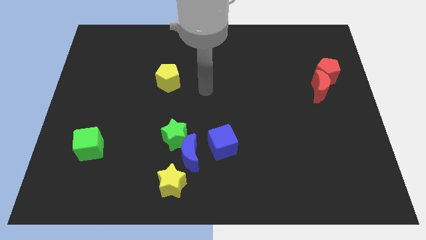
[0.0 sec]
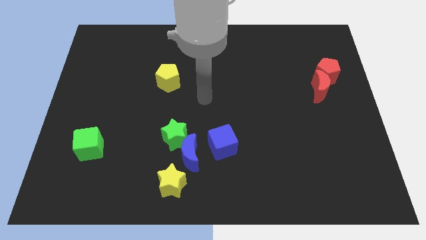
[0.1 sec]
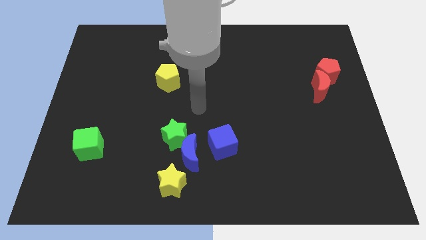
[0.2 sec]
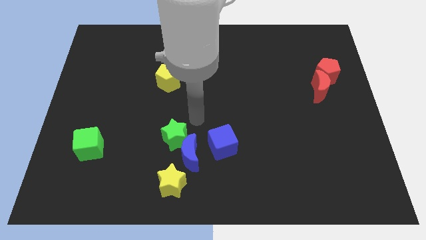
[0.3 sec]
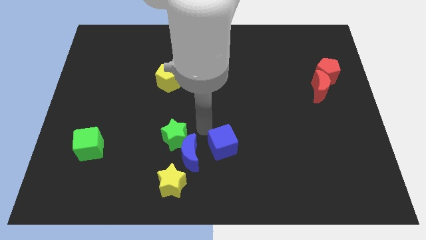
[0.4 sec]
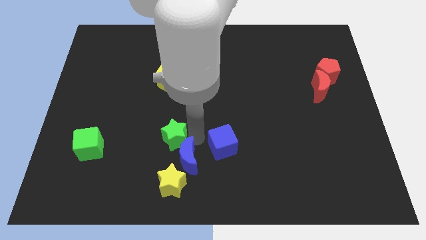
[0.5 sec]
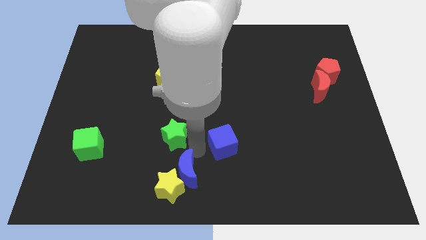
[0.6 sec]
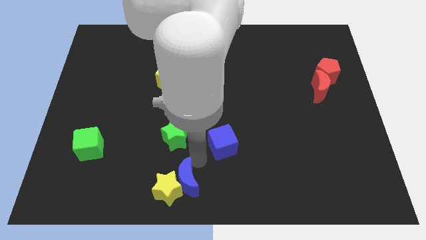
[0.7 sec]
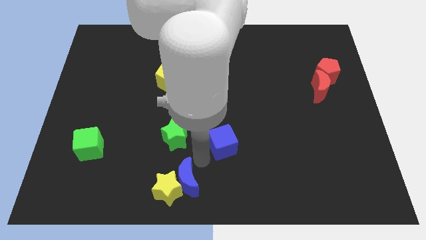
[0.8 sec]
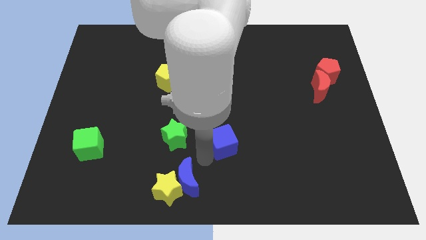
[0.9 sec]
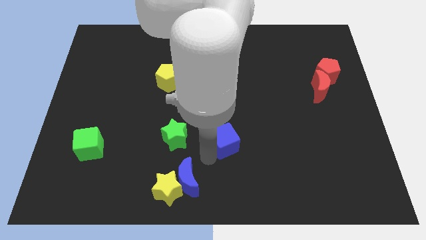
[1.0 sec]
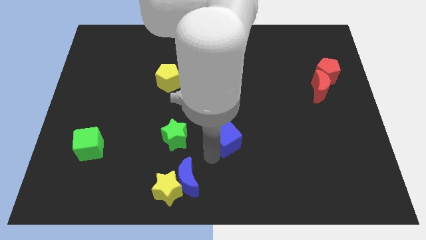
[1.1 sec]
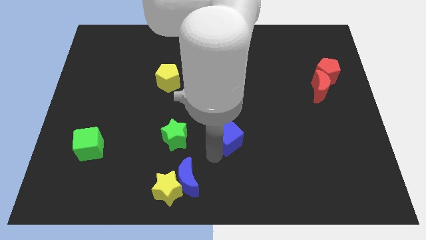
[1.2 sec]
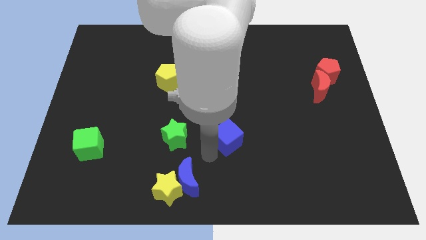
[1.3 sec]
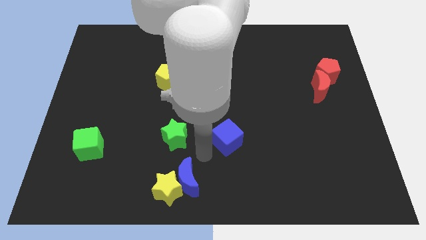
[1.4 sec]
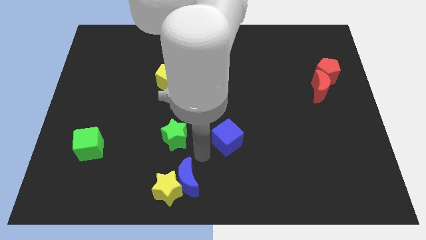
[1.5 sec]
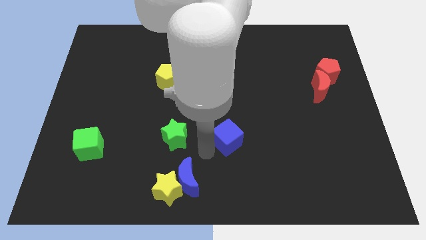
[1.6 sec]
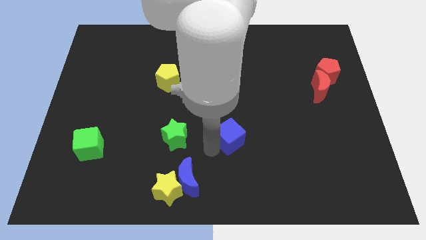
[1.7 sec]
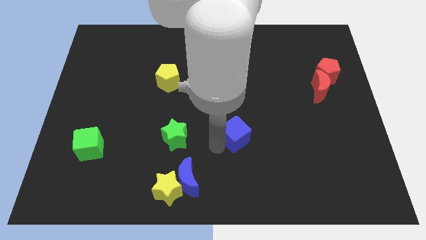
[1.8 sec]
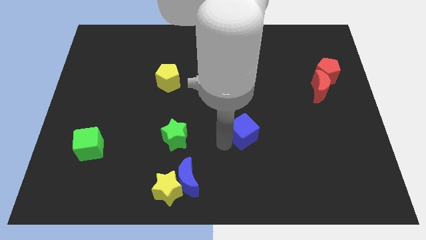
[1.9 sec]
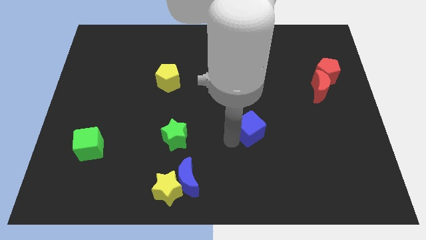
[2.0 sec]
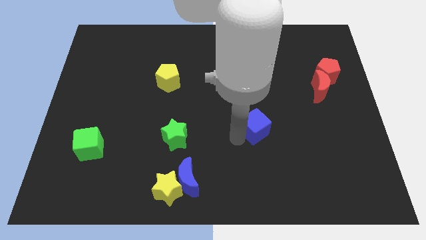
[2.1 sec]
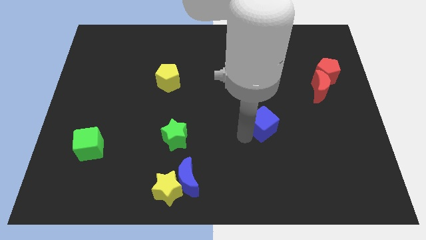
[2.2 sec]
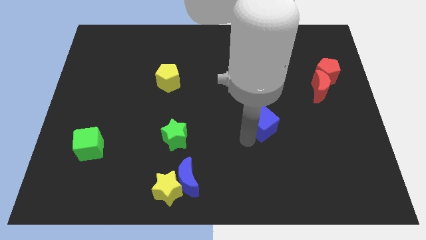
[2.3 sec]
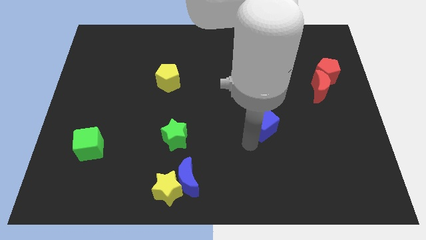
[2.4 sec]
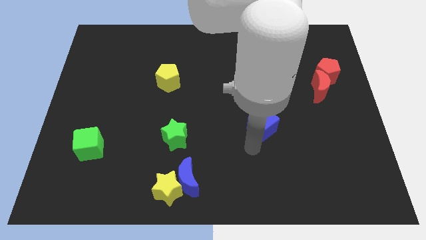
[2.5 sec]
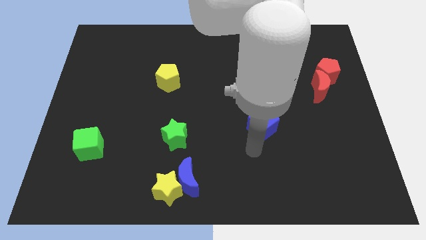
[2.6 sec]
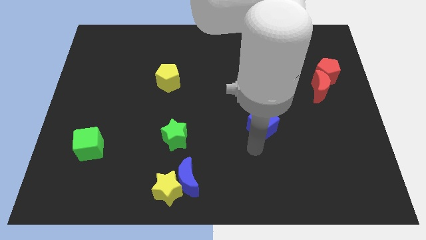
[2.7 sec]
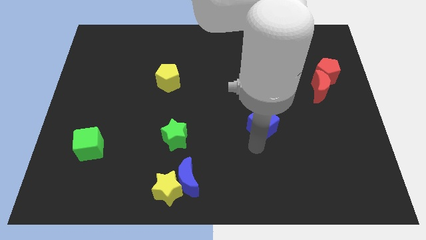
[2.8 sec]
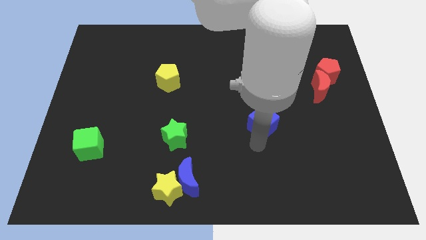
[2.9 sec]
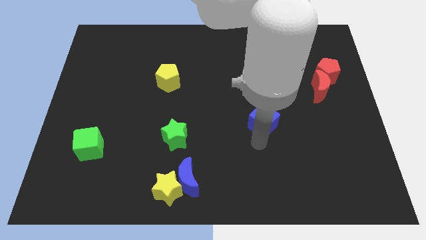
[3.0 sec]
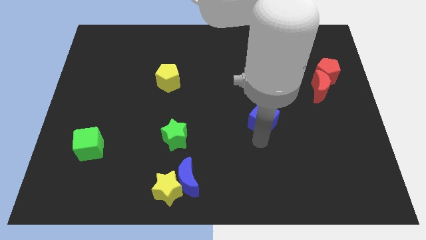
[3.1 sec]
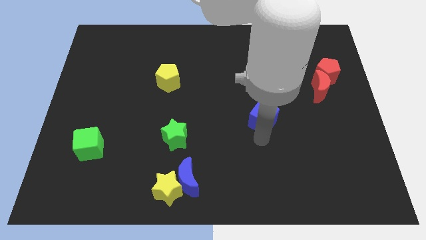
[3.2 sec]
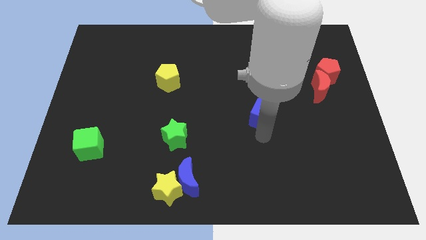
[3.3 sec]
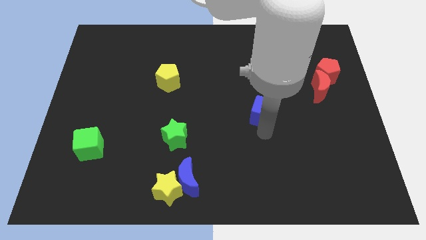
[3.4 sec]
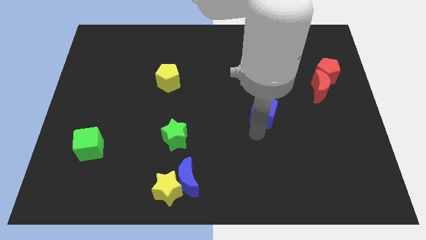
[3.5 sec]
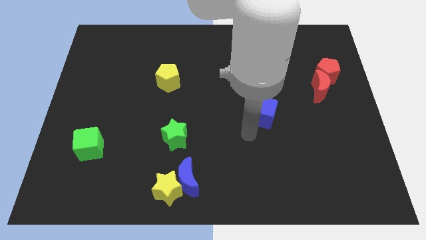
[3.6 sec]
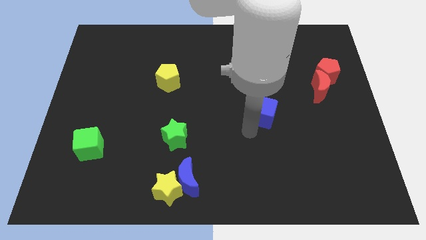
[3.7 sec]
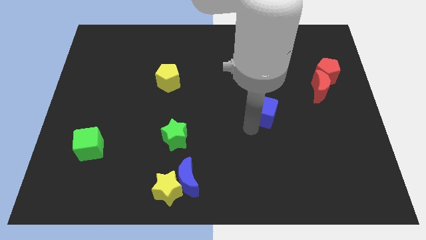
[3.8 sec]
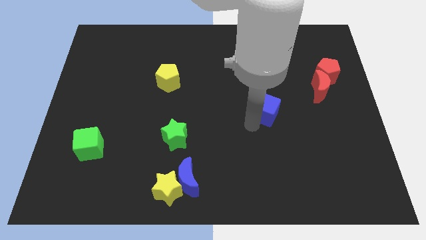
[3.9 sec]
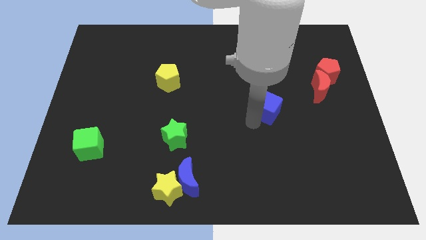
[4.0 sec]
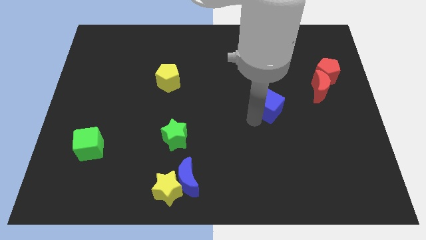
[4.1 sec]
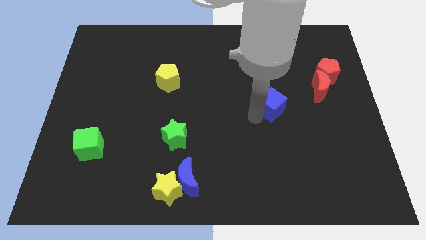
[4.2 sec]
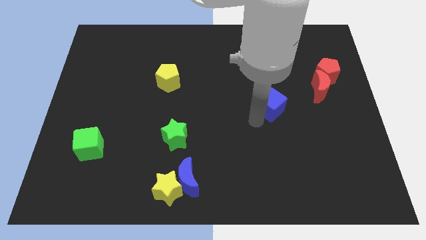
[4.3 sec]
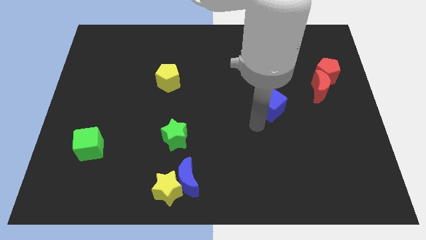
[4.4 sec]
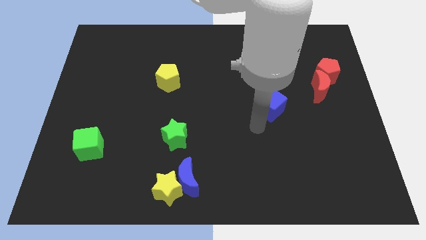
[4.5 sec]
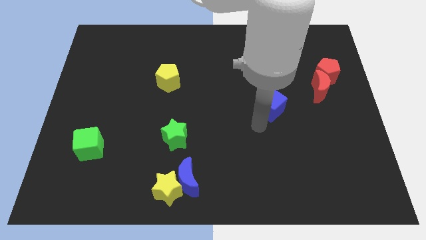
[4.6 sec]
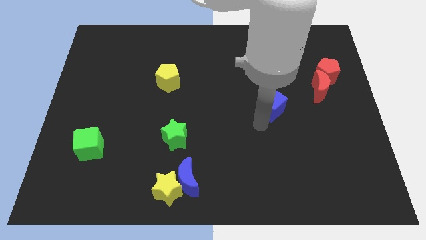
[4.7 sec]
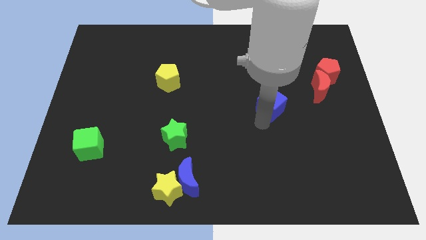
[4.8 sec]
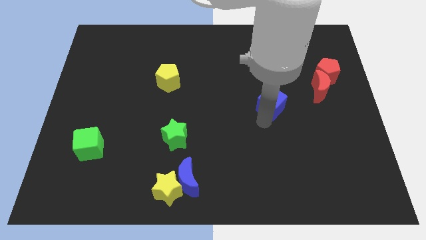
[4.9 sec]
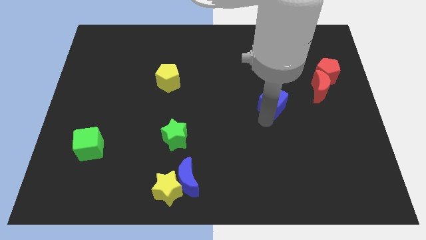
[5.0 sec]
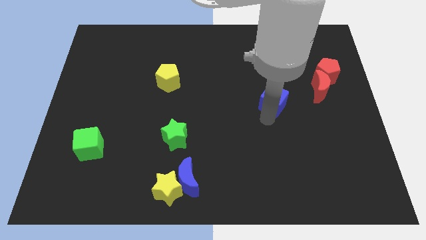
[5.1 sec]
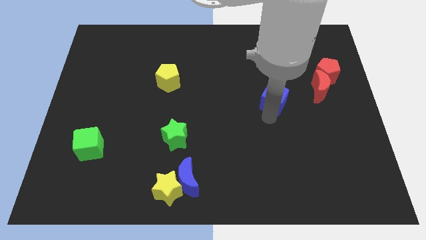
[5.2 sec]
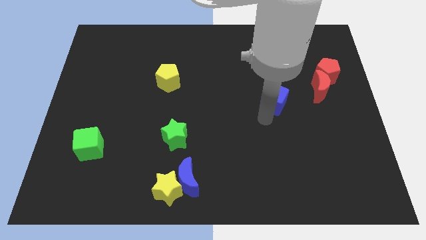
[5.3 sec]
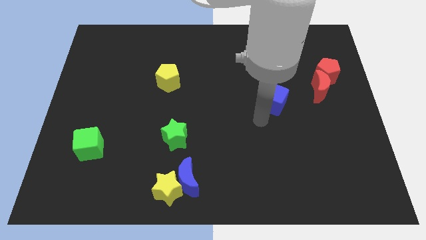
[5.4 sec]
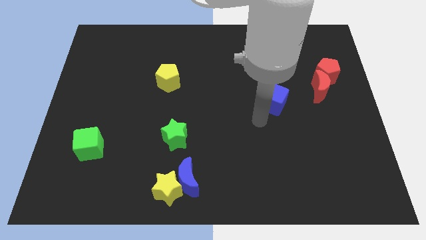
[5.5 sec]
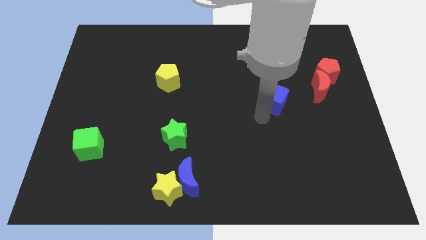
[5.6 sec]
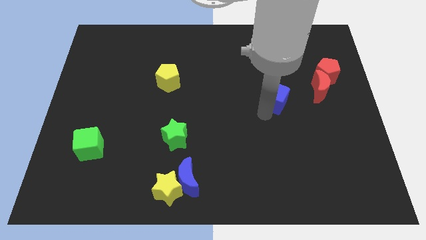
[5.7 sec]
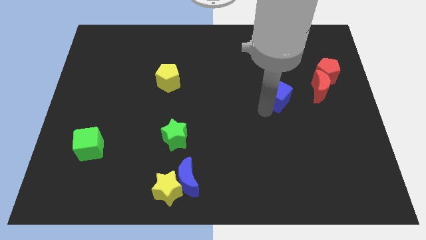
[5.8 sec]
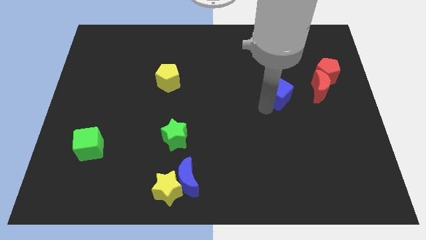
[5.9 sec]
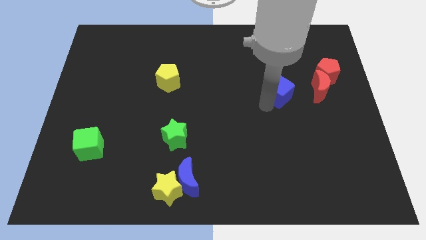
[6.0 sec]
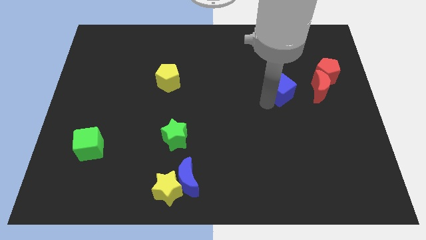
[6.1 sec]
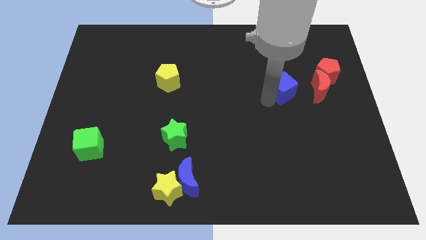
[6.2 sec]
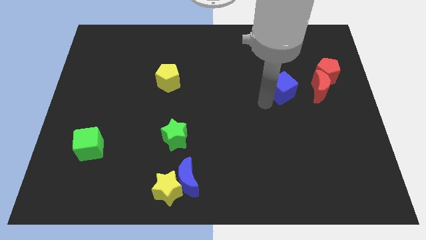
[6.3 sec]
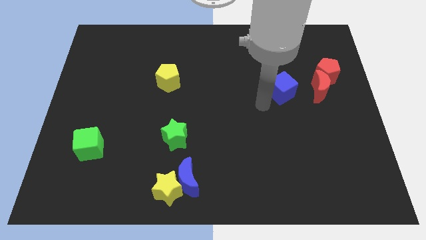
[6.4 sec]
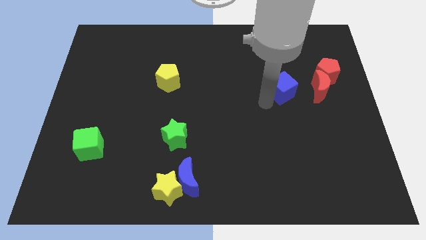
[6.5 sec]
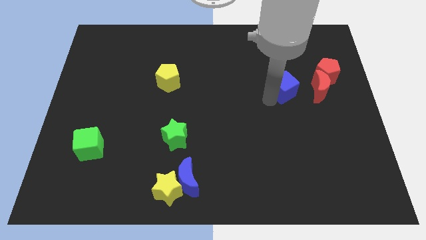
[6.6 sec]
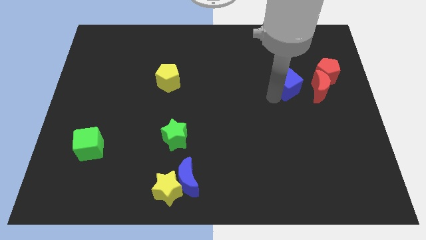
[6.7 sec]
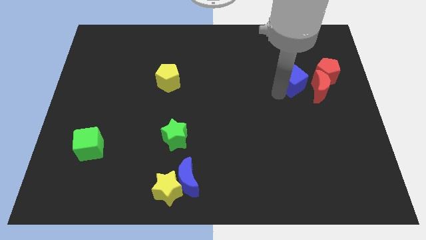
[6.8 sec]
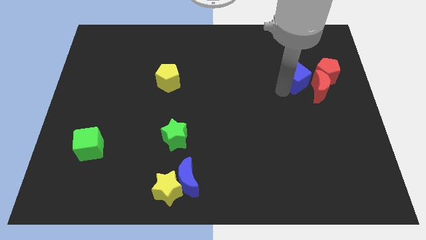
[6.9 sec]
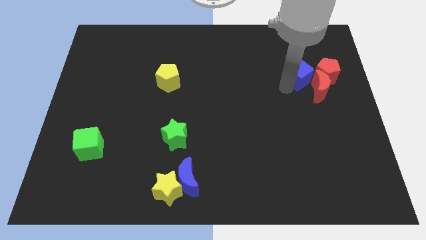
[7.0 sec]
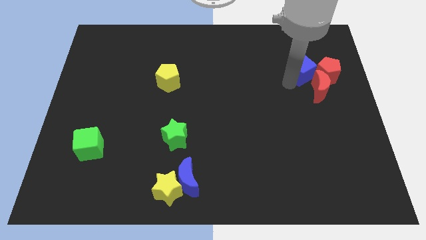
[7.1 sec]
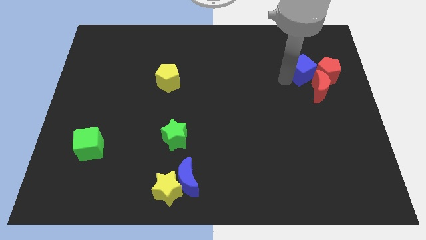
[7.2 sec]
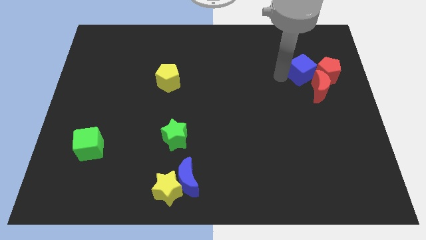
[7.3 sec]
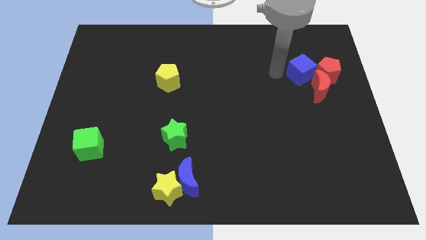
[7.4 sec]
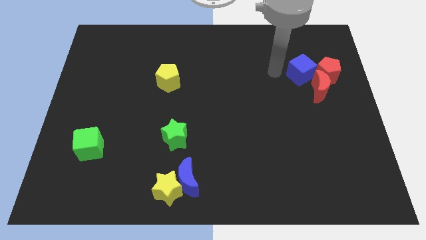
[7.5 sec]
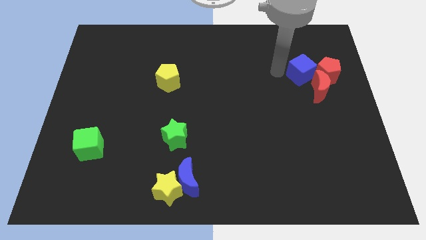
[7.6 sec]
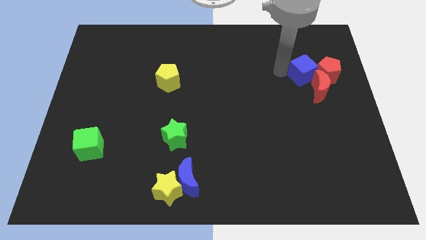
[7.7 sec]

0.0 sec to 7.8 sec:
push the blue cube close to the red pentagon
